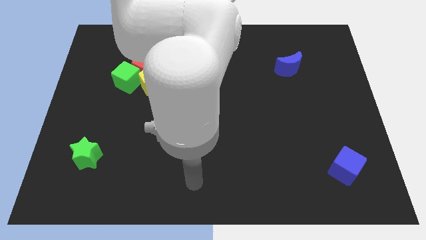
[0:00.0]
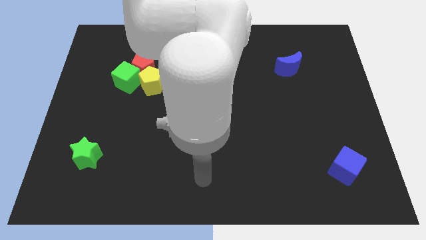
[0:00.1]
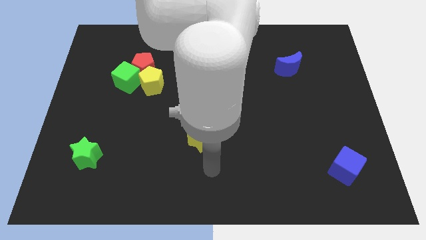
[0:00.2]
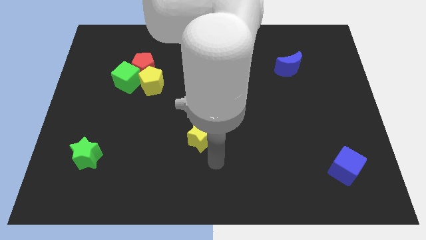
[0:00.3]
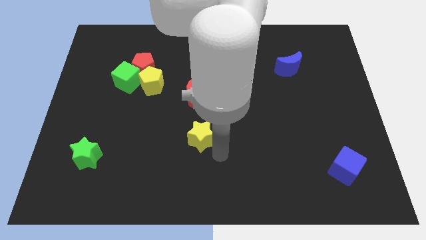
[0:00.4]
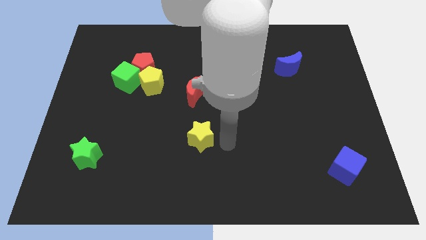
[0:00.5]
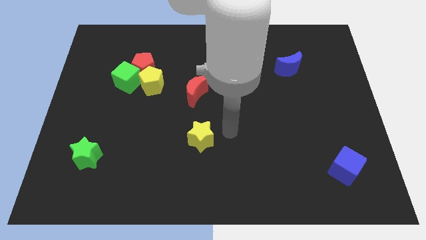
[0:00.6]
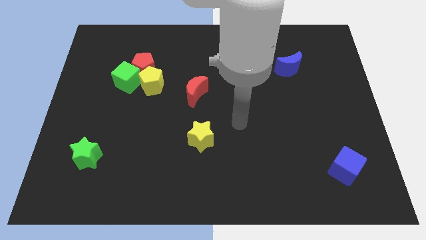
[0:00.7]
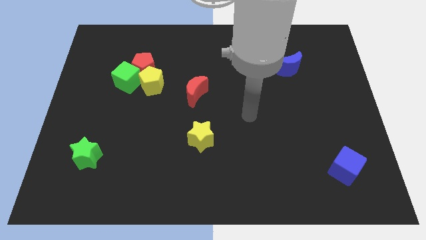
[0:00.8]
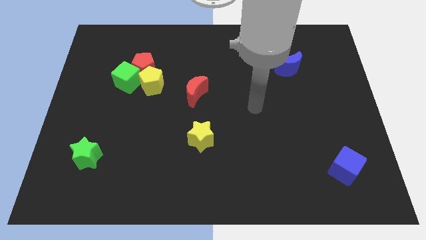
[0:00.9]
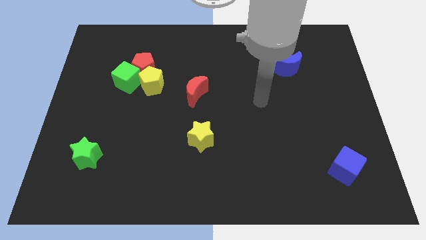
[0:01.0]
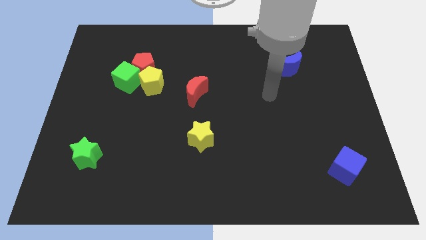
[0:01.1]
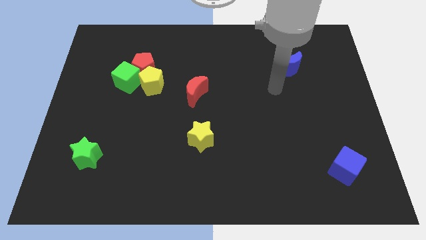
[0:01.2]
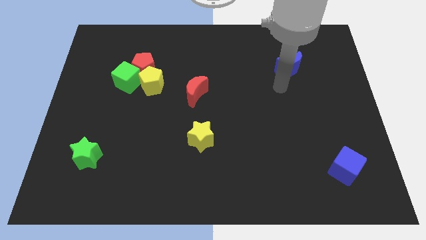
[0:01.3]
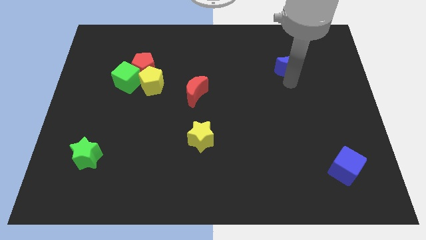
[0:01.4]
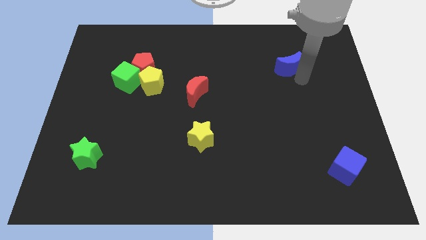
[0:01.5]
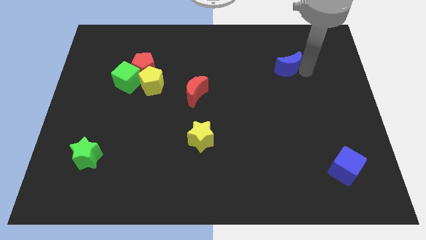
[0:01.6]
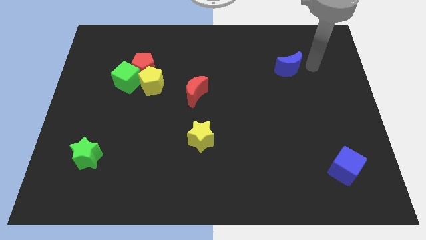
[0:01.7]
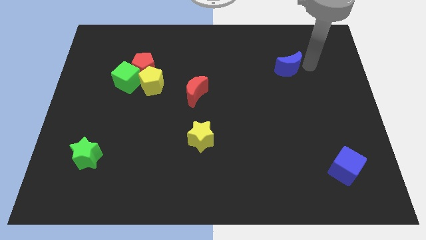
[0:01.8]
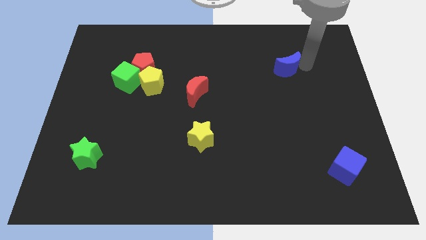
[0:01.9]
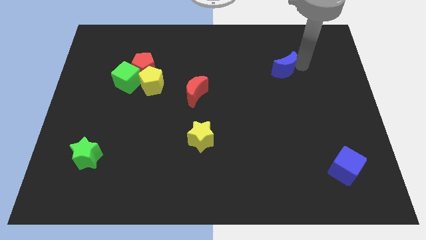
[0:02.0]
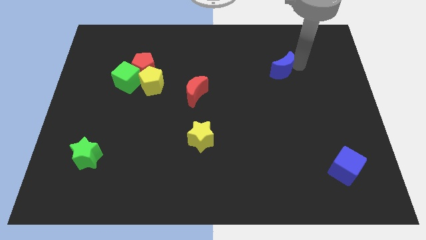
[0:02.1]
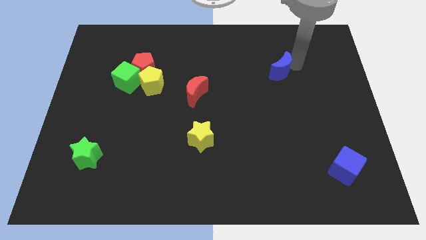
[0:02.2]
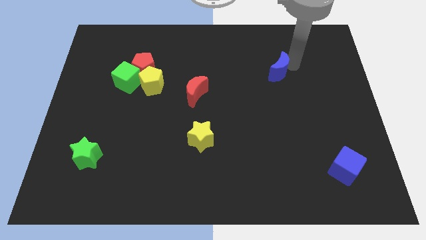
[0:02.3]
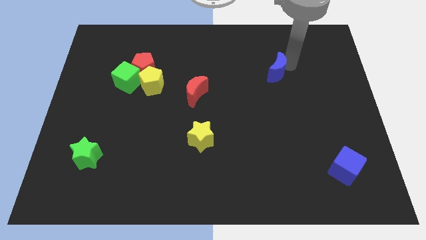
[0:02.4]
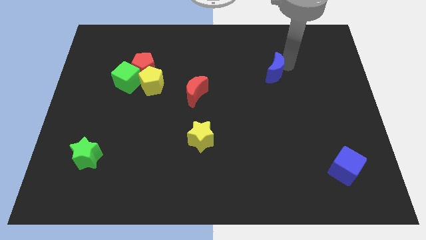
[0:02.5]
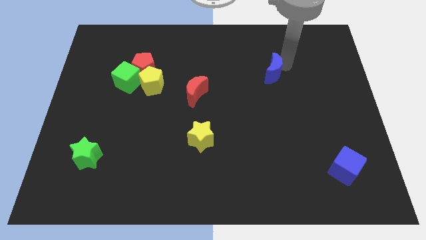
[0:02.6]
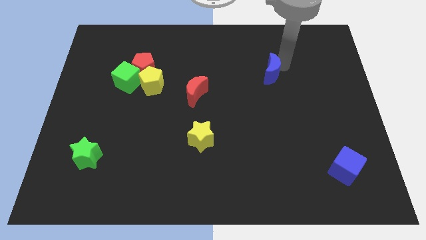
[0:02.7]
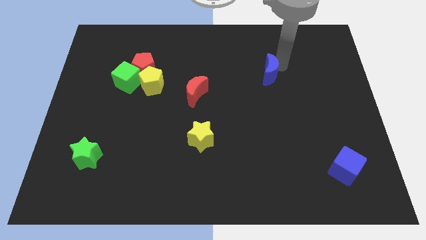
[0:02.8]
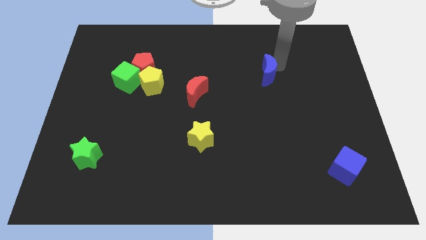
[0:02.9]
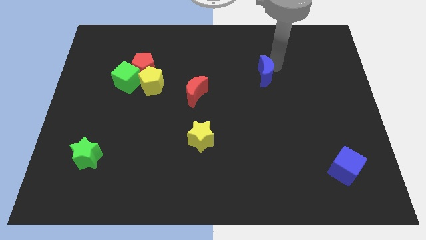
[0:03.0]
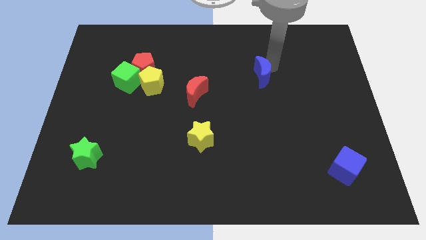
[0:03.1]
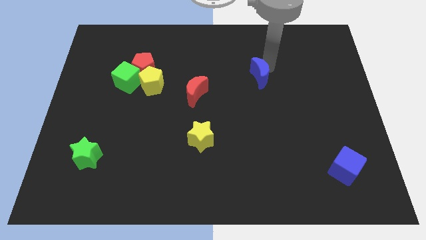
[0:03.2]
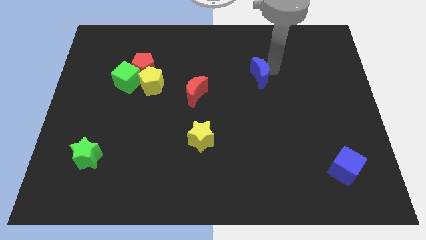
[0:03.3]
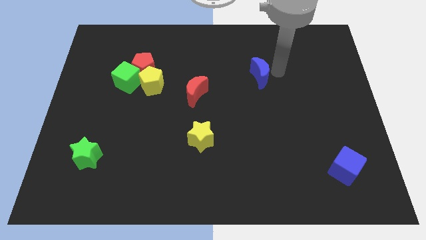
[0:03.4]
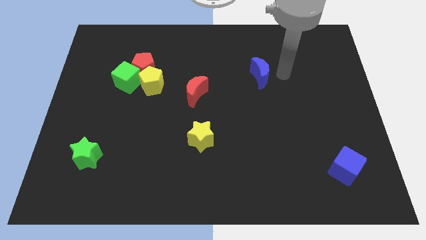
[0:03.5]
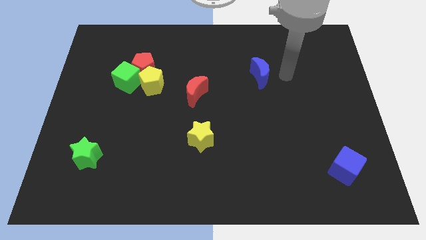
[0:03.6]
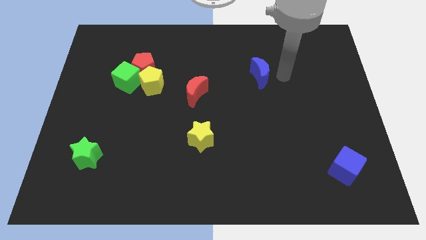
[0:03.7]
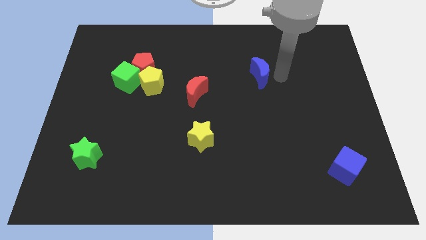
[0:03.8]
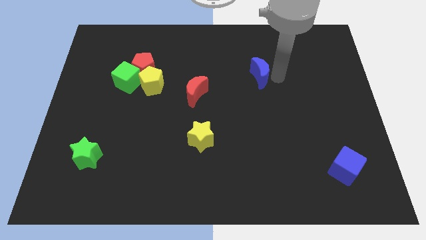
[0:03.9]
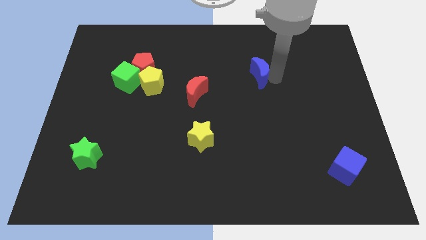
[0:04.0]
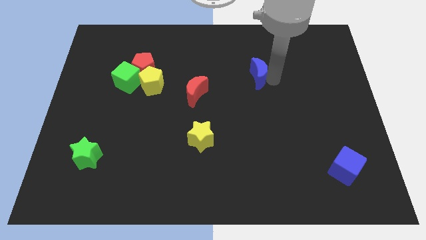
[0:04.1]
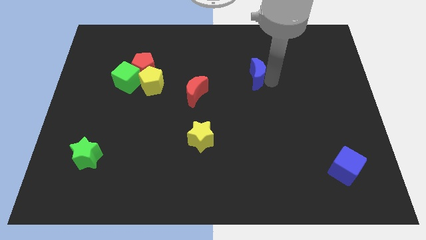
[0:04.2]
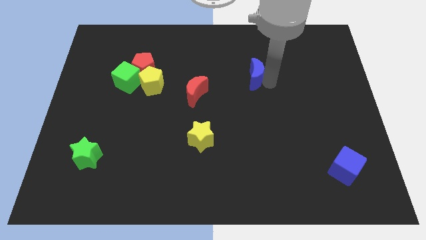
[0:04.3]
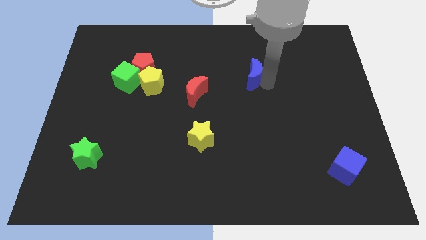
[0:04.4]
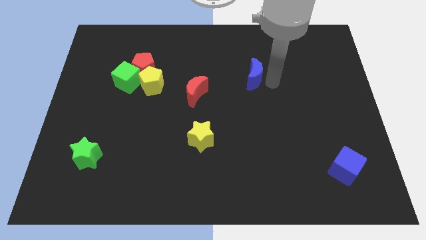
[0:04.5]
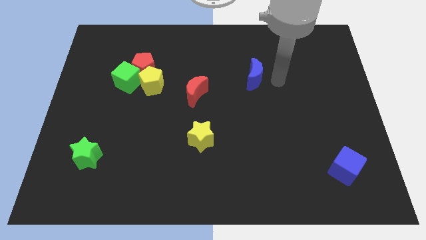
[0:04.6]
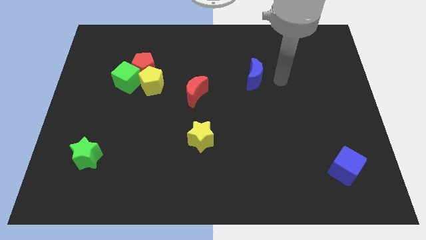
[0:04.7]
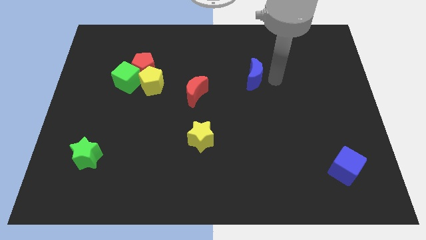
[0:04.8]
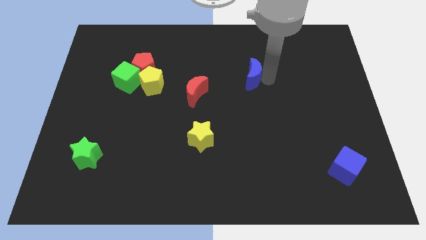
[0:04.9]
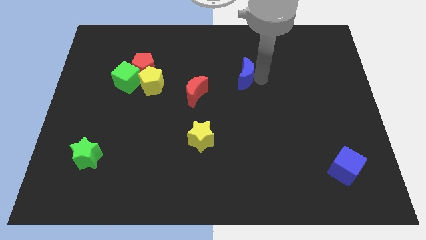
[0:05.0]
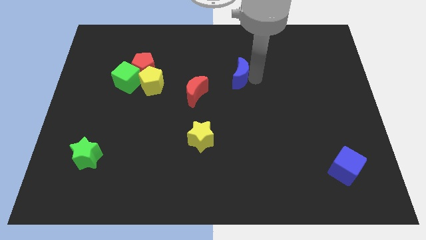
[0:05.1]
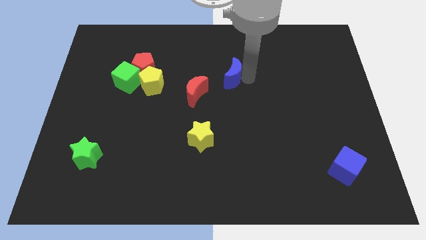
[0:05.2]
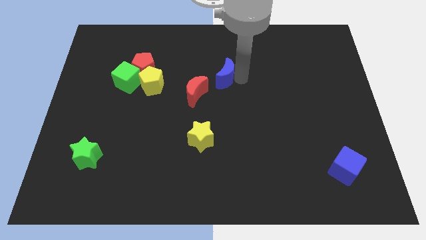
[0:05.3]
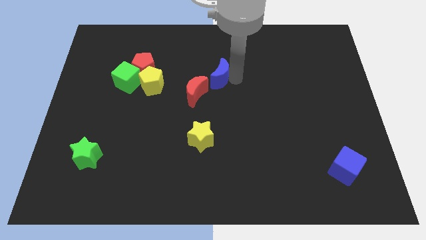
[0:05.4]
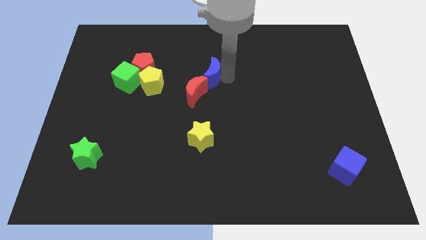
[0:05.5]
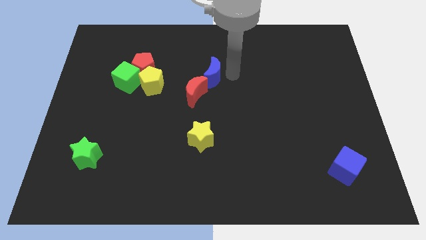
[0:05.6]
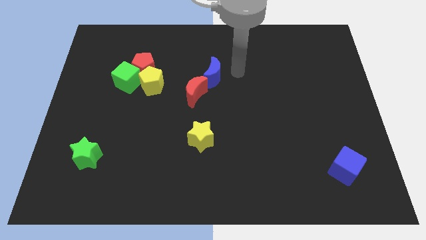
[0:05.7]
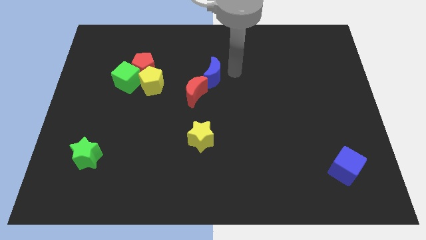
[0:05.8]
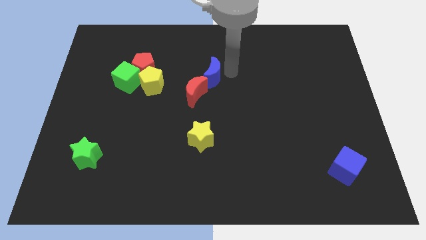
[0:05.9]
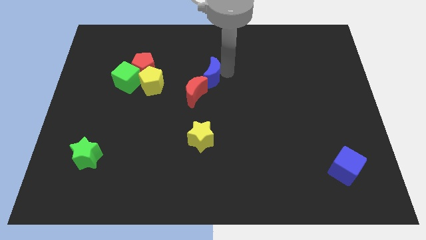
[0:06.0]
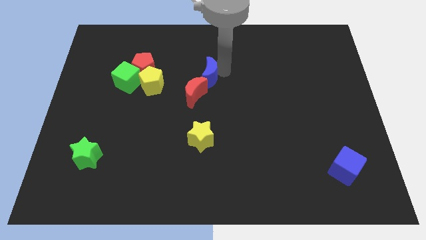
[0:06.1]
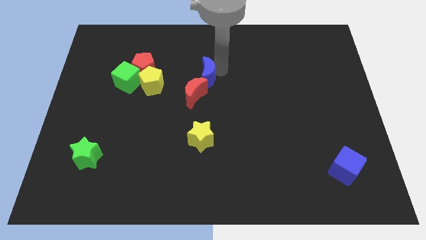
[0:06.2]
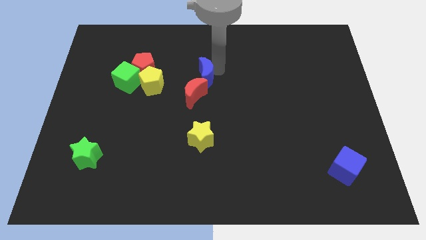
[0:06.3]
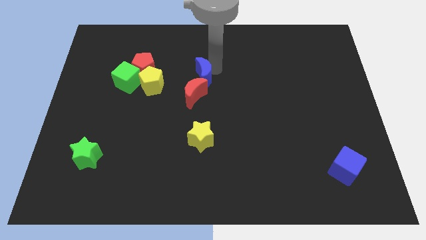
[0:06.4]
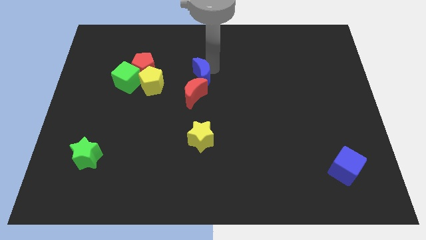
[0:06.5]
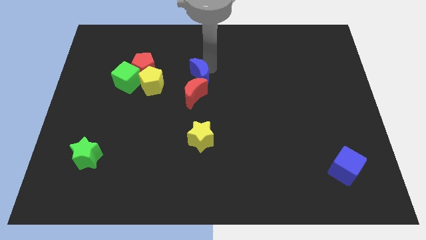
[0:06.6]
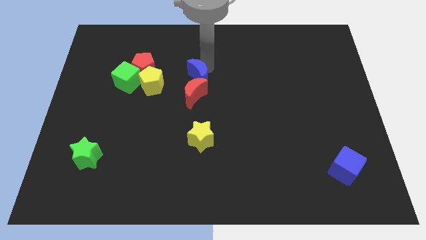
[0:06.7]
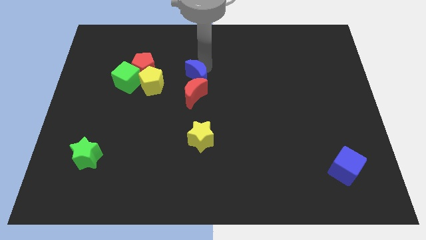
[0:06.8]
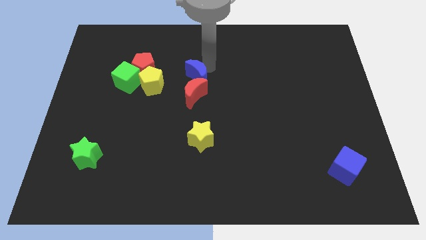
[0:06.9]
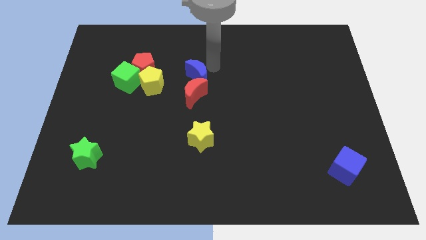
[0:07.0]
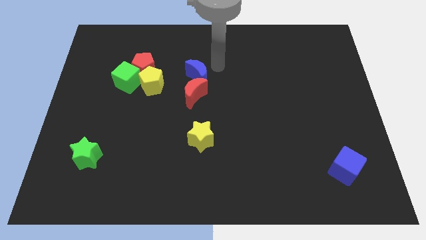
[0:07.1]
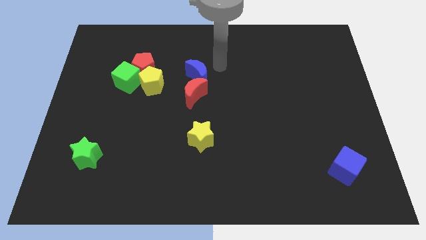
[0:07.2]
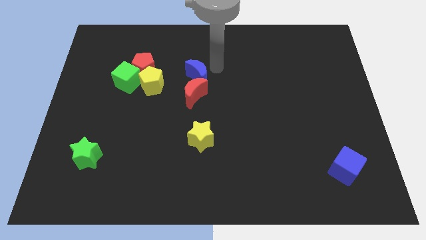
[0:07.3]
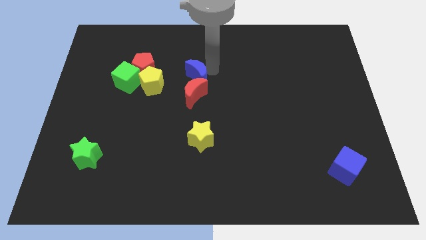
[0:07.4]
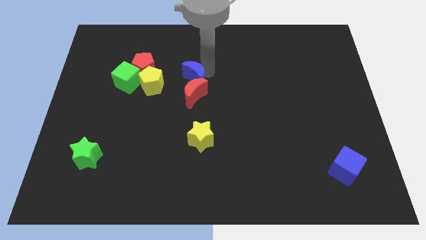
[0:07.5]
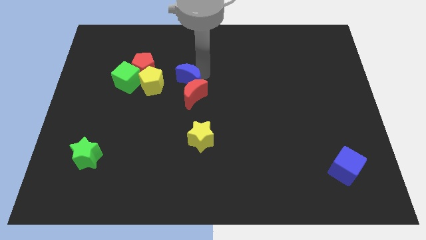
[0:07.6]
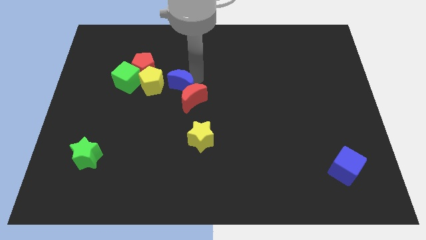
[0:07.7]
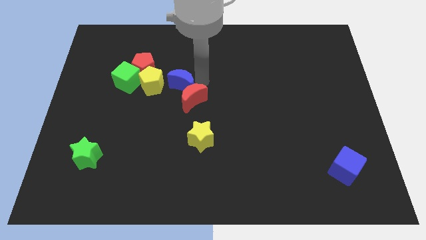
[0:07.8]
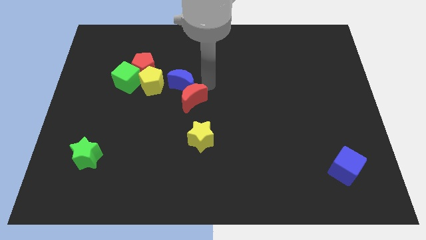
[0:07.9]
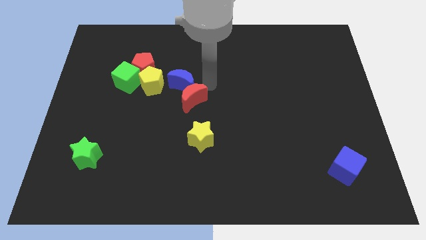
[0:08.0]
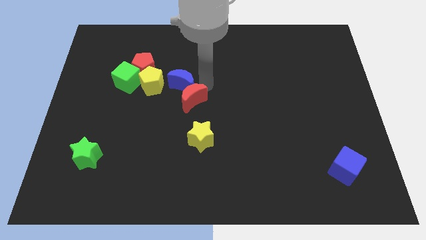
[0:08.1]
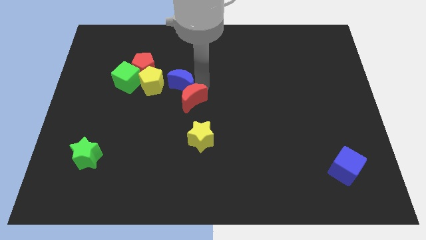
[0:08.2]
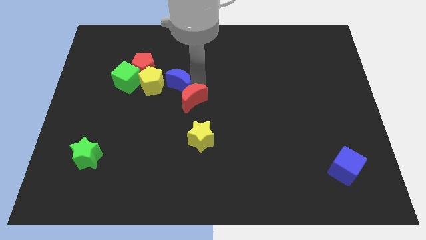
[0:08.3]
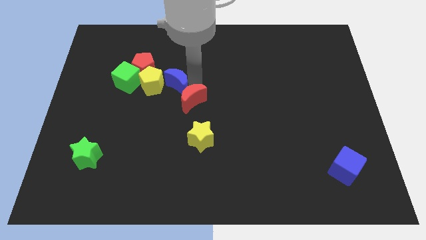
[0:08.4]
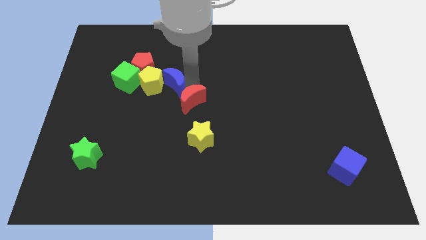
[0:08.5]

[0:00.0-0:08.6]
push the blue moon close to the yellow pentagon
